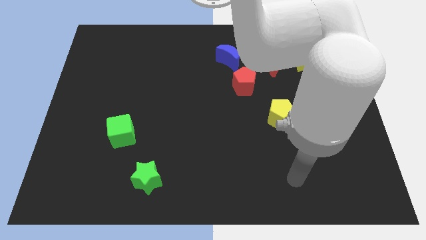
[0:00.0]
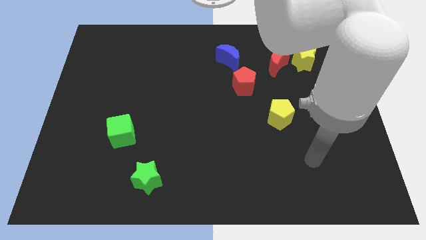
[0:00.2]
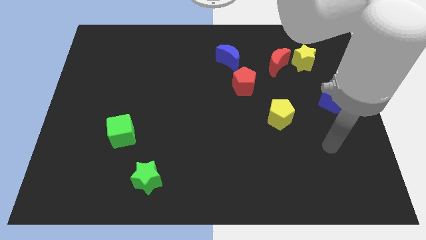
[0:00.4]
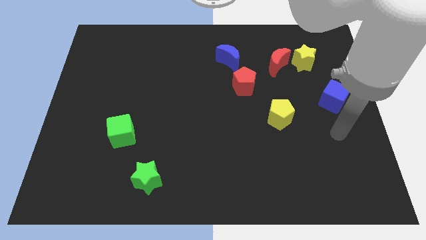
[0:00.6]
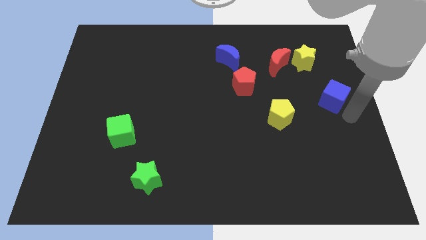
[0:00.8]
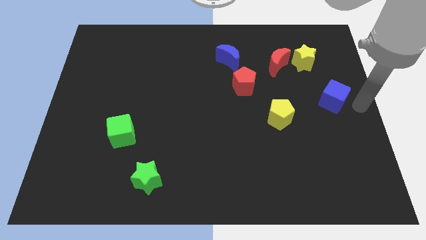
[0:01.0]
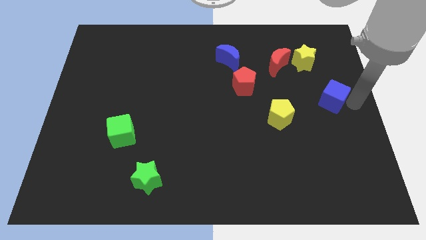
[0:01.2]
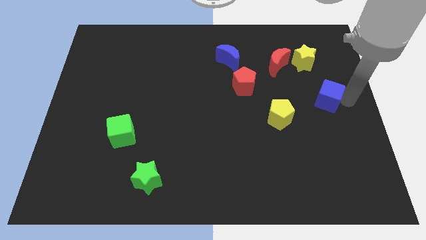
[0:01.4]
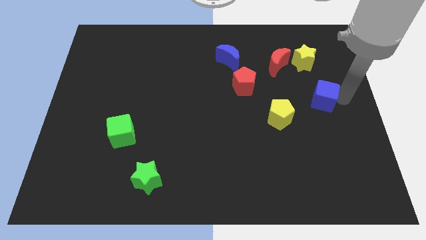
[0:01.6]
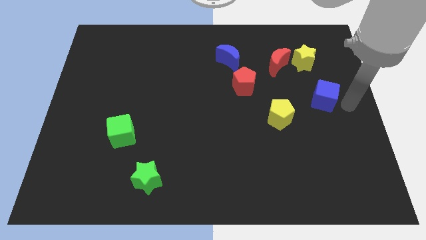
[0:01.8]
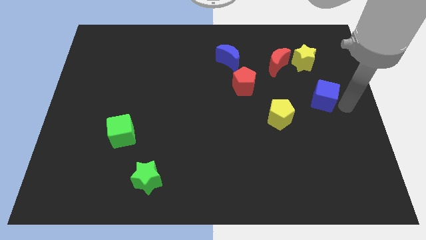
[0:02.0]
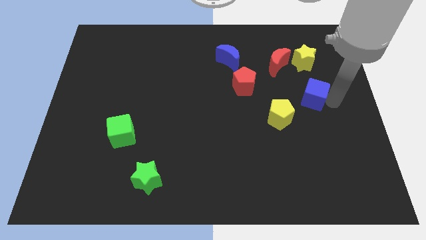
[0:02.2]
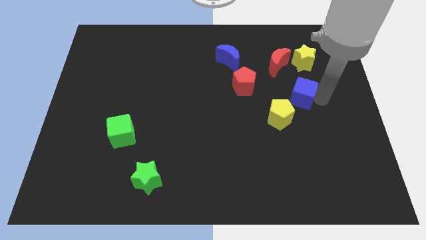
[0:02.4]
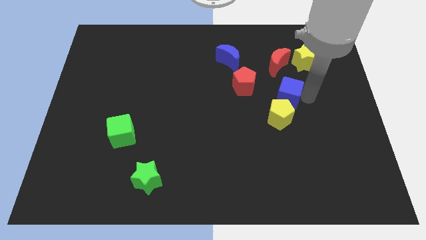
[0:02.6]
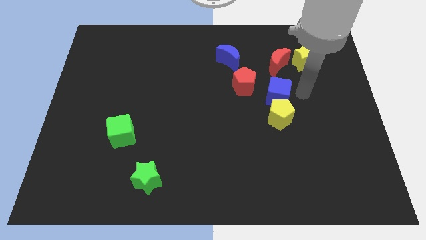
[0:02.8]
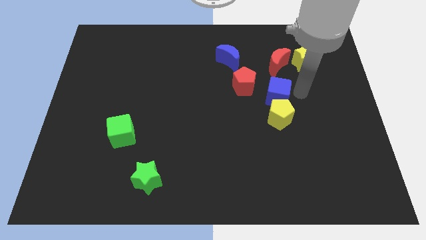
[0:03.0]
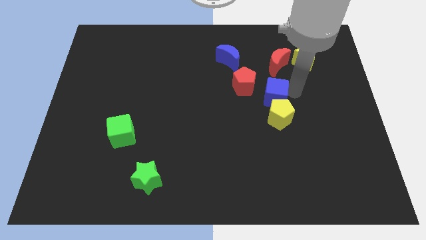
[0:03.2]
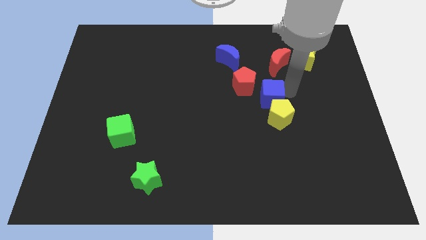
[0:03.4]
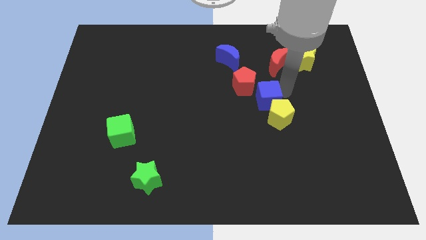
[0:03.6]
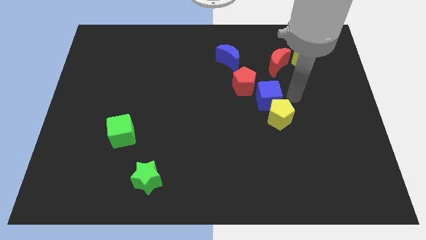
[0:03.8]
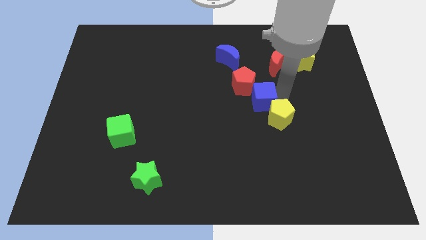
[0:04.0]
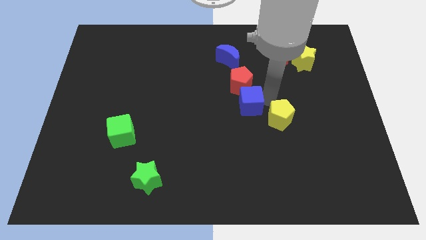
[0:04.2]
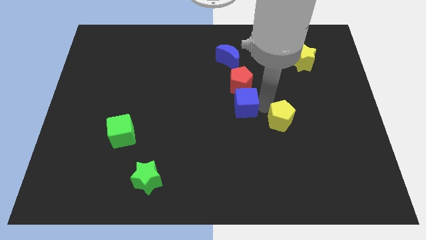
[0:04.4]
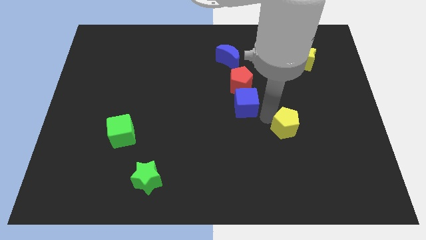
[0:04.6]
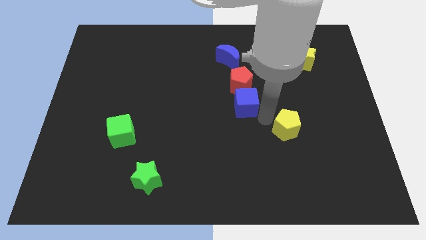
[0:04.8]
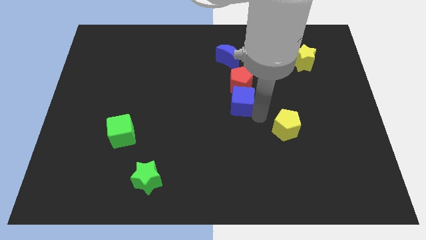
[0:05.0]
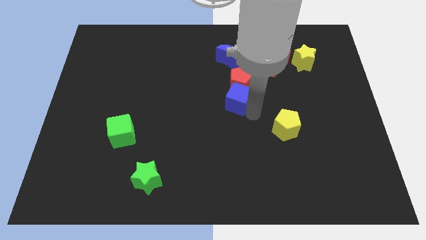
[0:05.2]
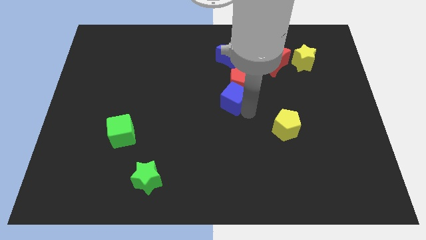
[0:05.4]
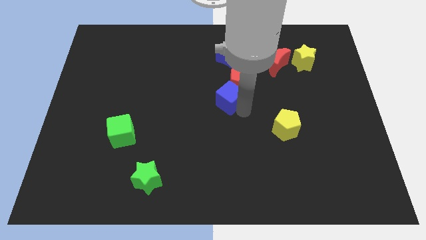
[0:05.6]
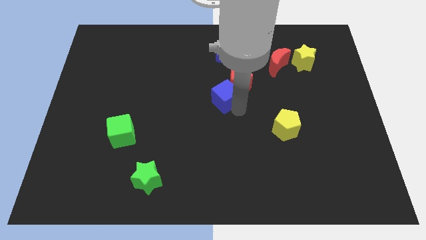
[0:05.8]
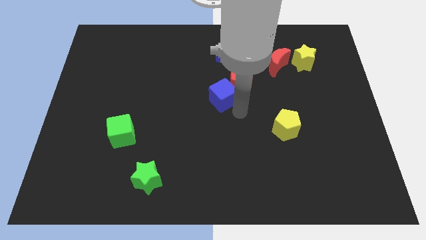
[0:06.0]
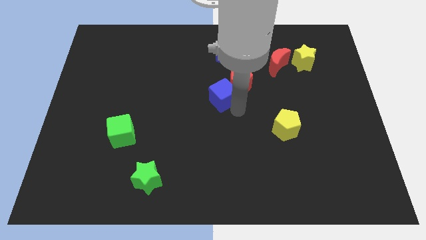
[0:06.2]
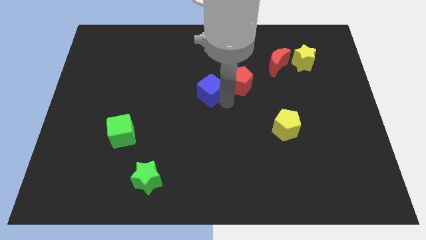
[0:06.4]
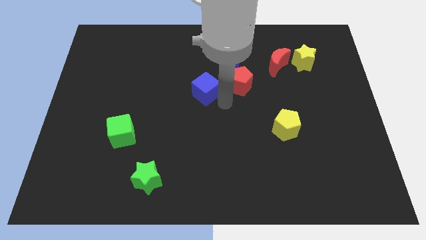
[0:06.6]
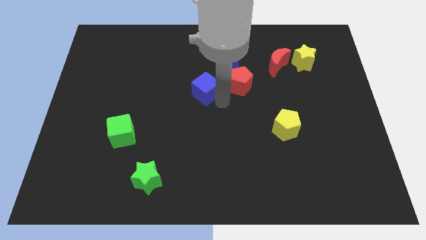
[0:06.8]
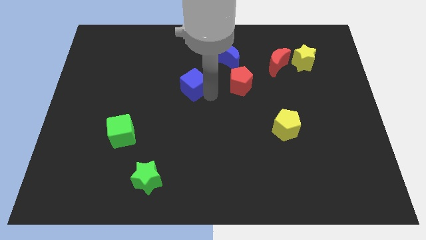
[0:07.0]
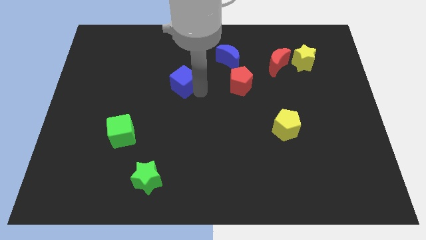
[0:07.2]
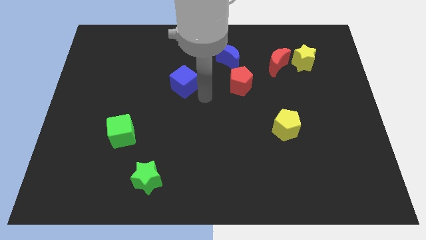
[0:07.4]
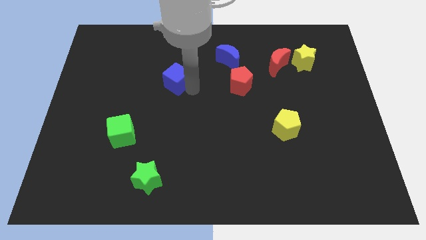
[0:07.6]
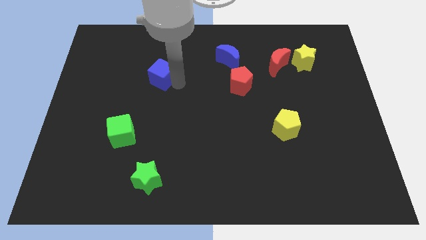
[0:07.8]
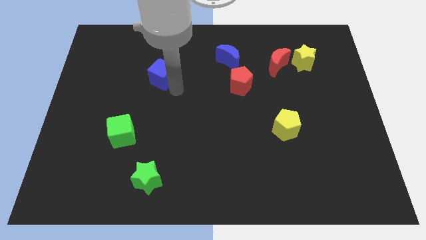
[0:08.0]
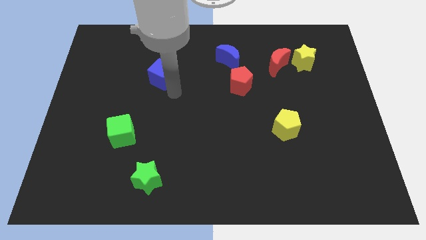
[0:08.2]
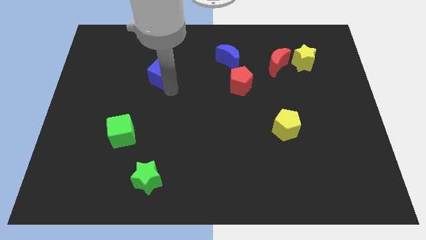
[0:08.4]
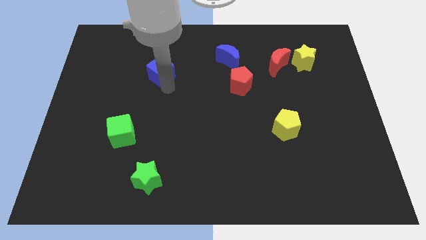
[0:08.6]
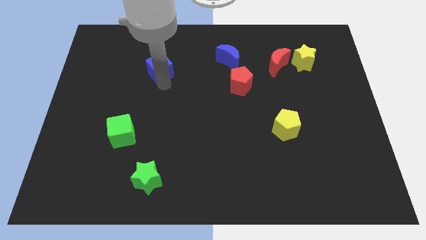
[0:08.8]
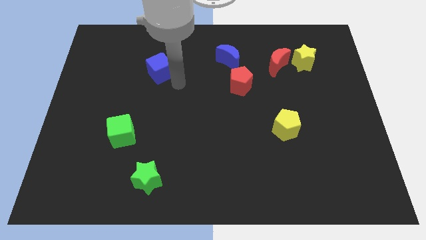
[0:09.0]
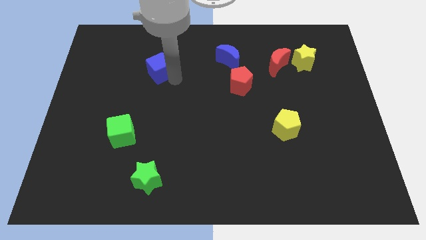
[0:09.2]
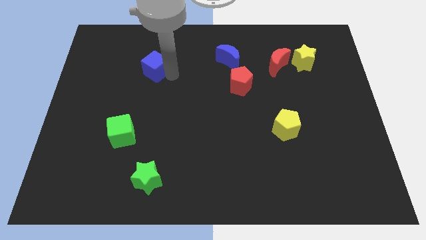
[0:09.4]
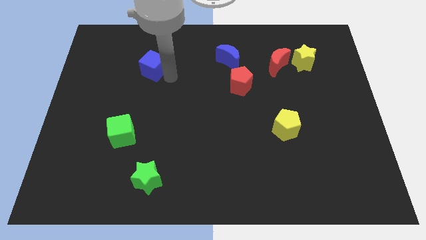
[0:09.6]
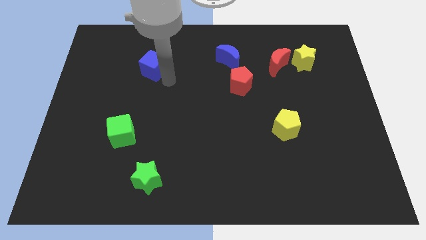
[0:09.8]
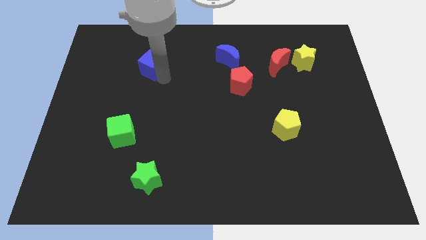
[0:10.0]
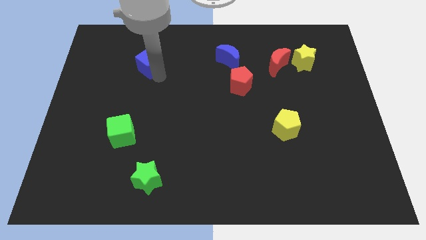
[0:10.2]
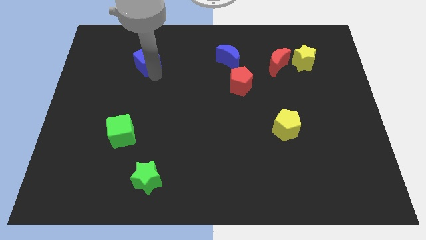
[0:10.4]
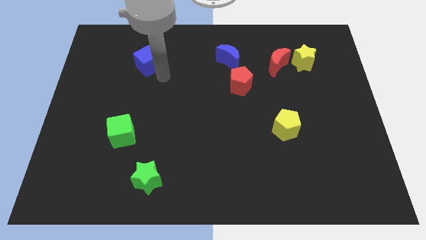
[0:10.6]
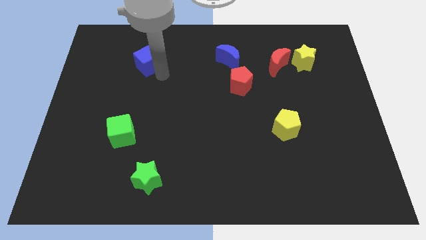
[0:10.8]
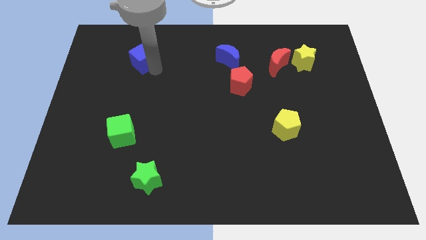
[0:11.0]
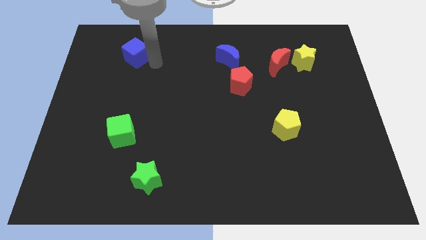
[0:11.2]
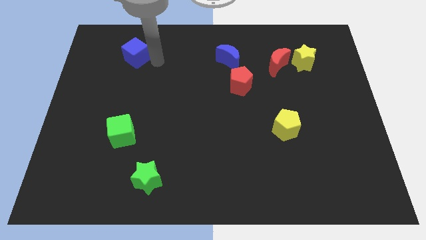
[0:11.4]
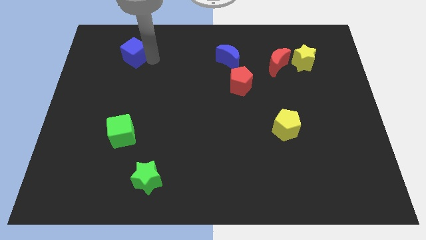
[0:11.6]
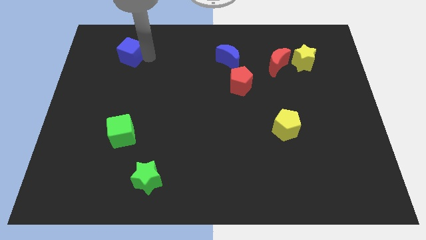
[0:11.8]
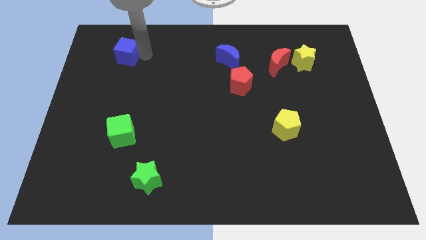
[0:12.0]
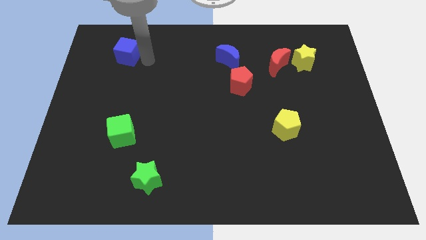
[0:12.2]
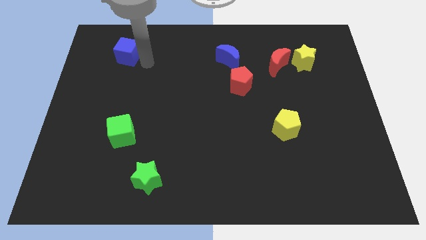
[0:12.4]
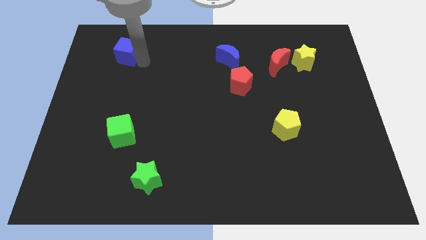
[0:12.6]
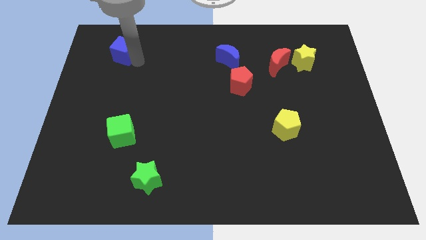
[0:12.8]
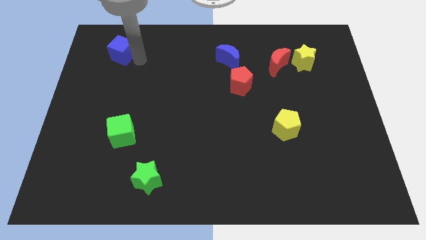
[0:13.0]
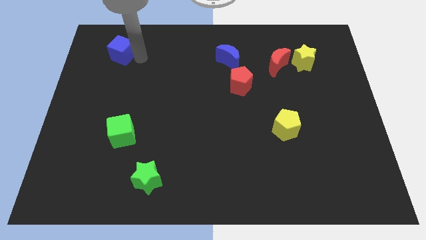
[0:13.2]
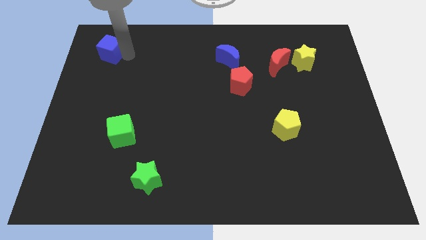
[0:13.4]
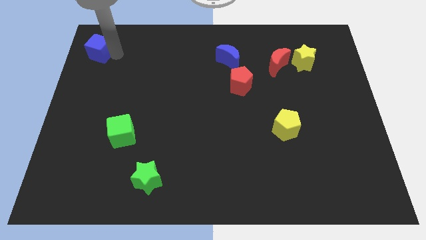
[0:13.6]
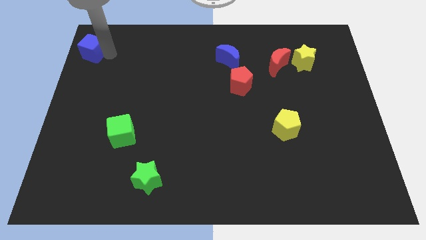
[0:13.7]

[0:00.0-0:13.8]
slide the blue cube to the upper left corner
